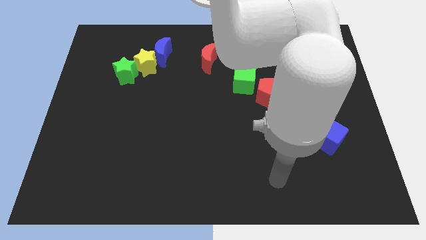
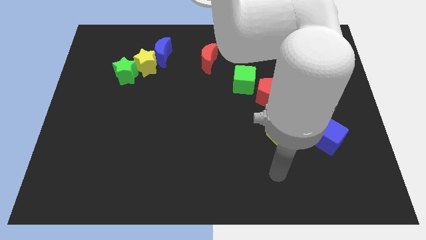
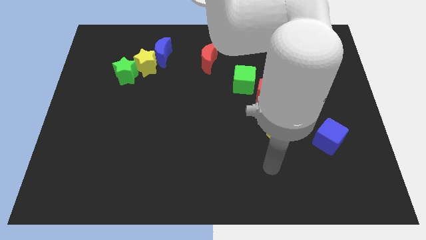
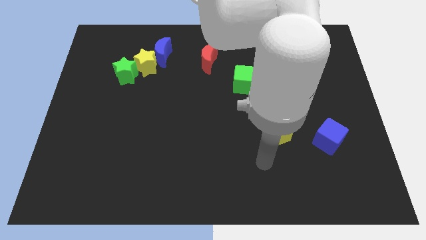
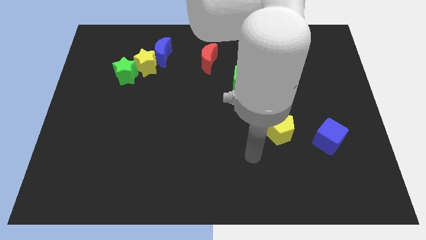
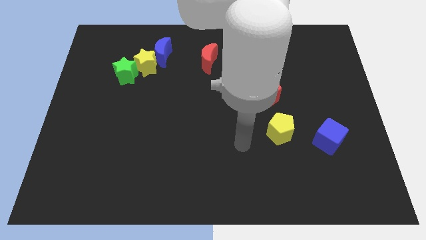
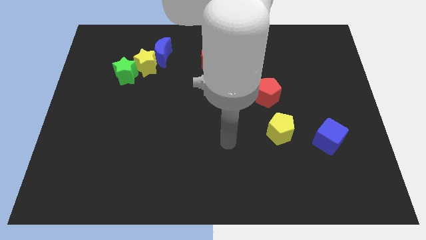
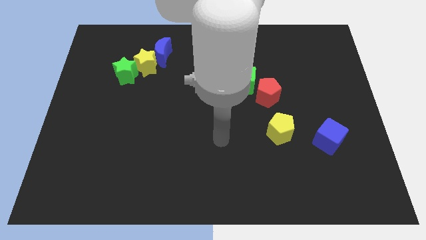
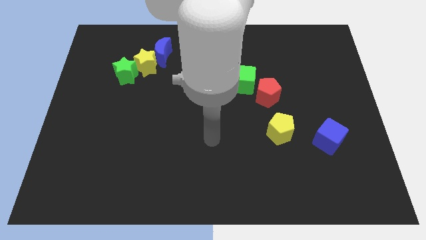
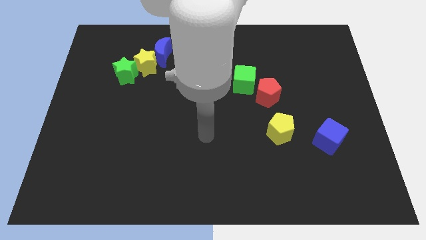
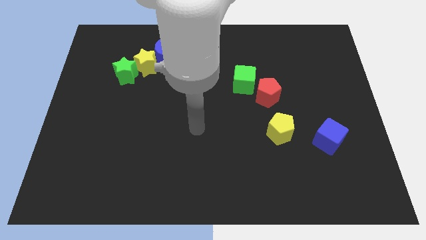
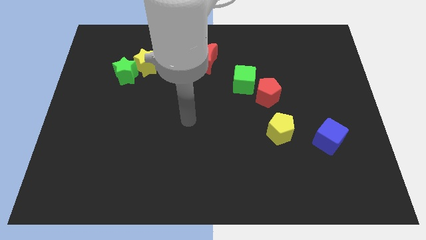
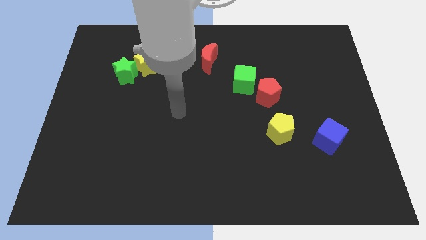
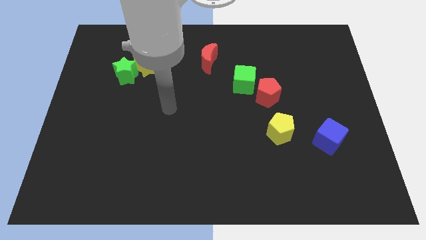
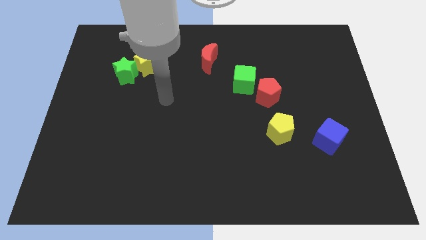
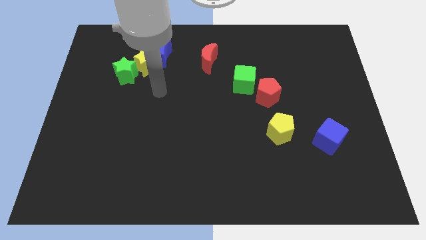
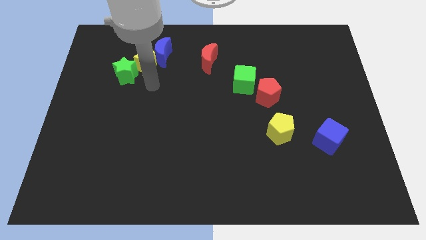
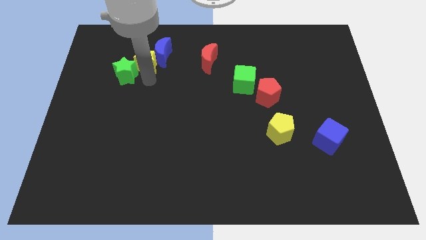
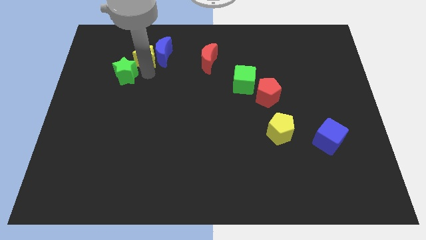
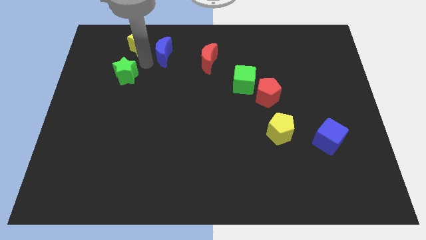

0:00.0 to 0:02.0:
pull the green star apart from the yellow star

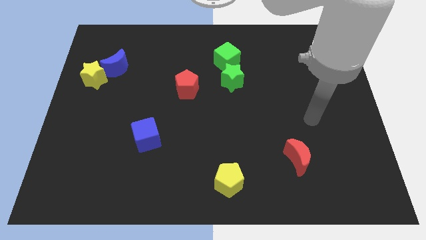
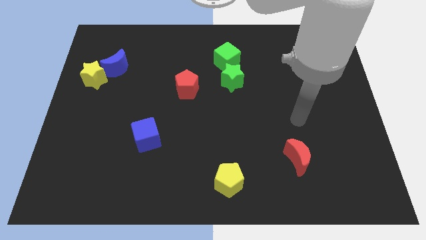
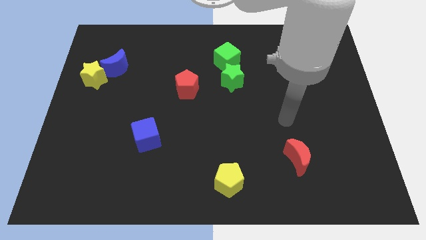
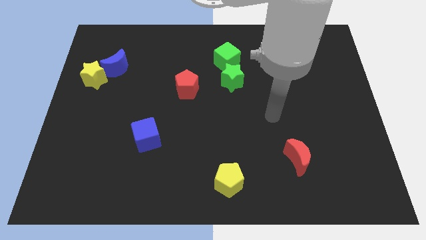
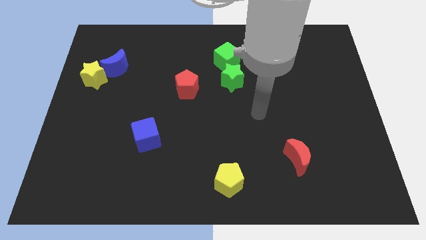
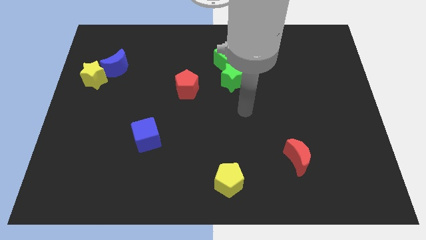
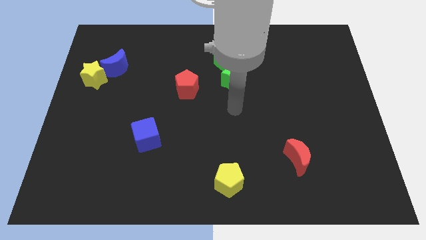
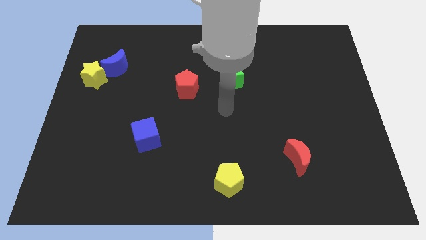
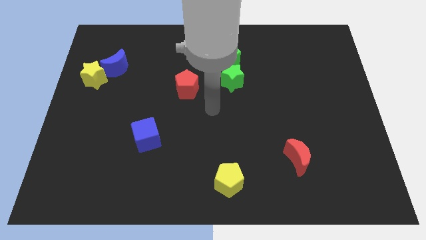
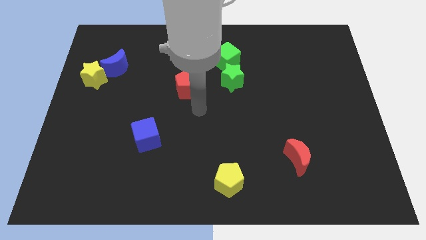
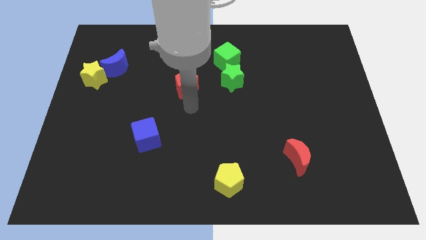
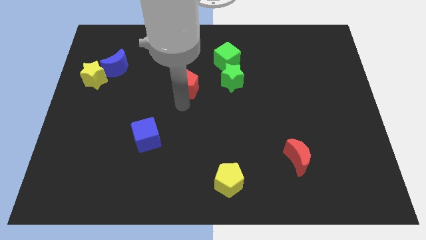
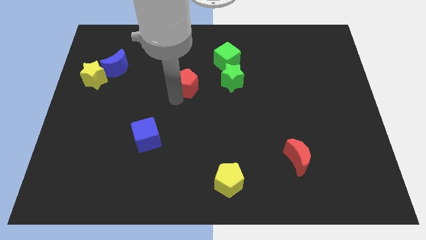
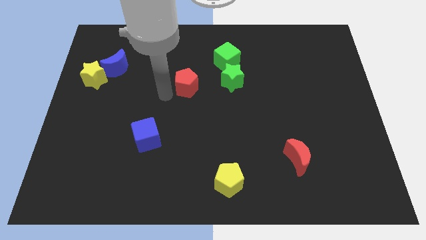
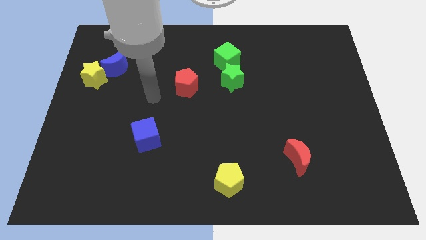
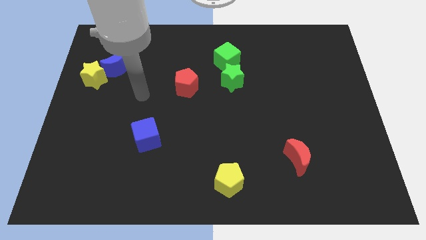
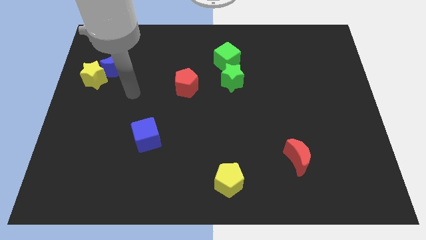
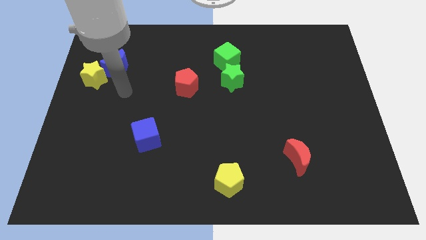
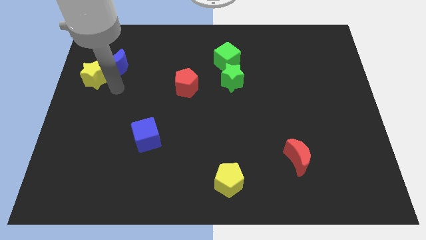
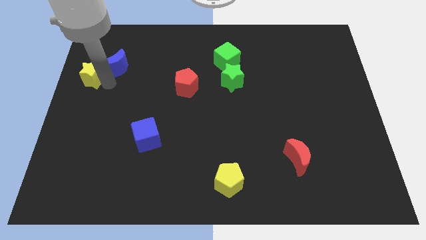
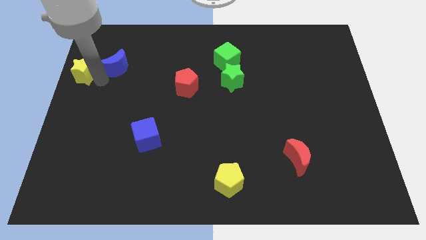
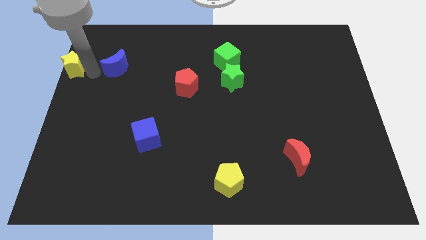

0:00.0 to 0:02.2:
separate the blue moon from the yellow star

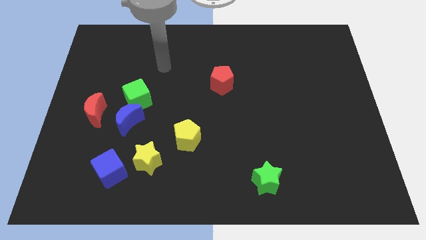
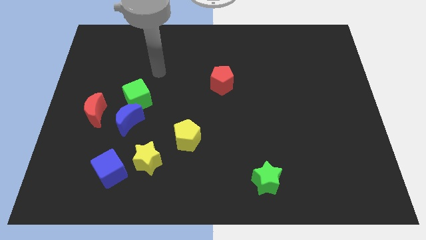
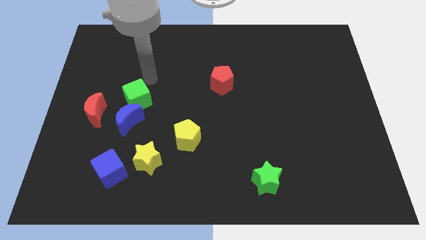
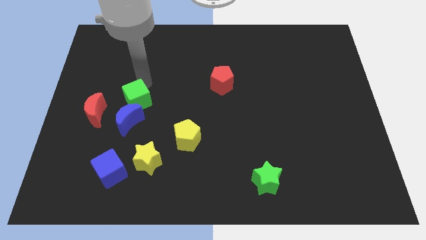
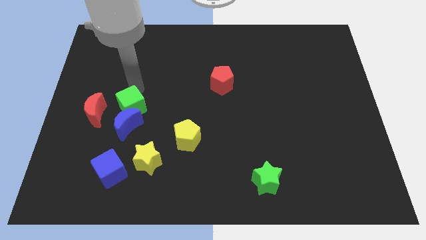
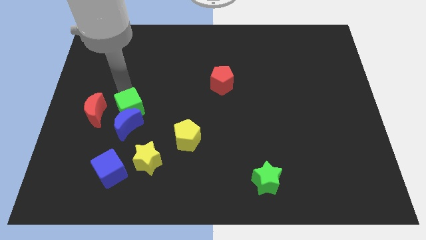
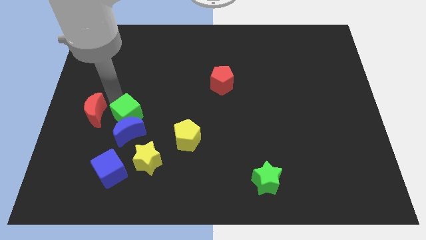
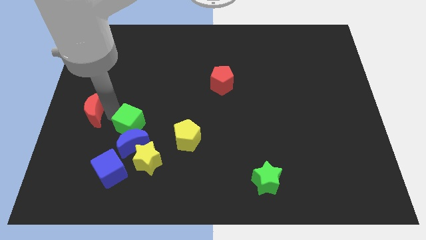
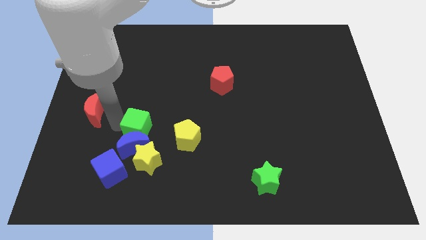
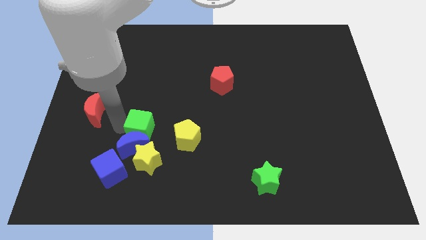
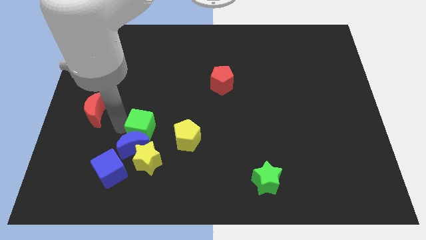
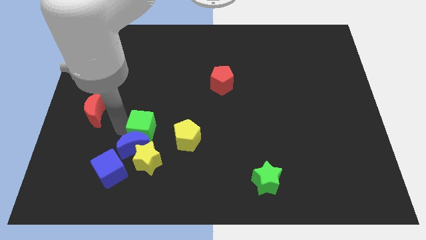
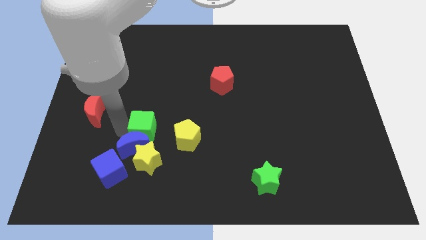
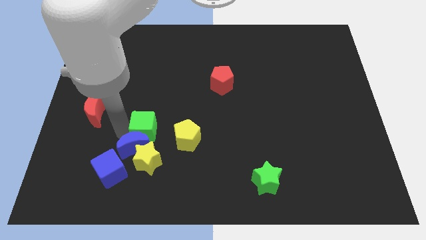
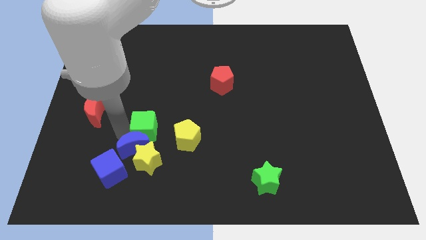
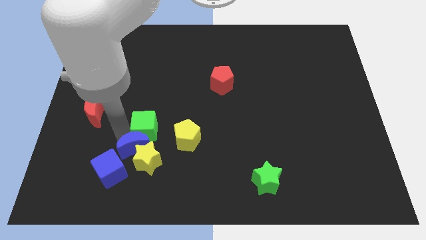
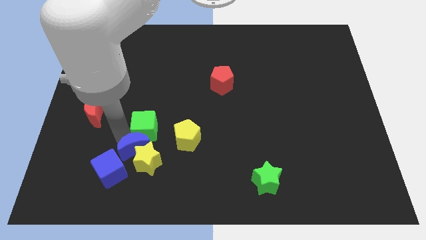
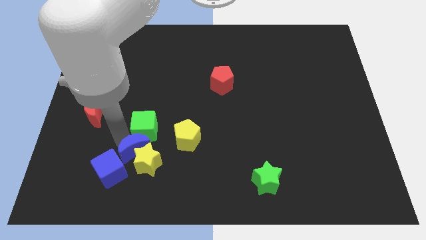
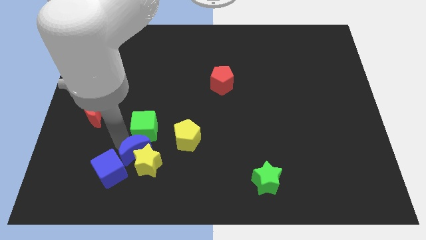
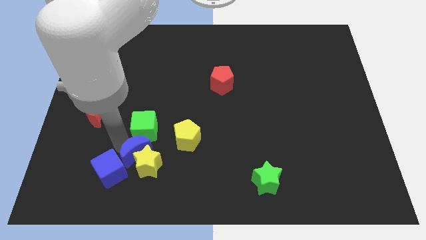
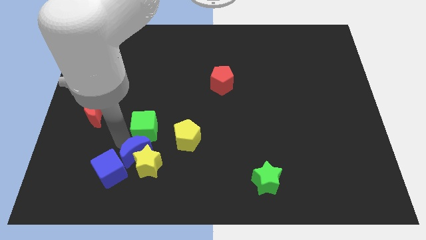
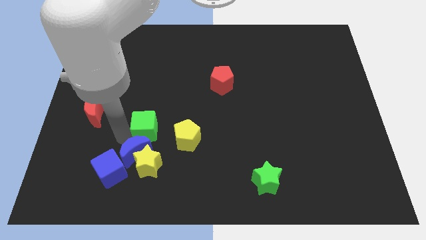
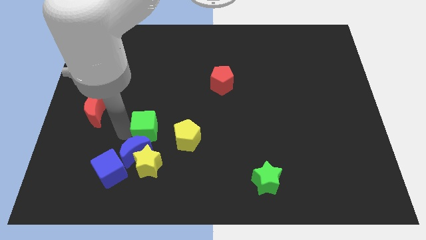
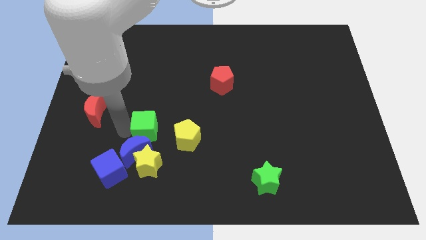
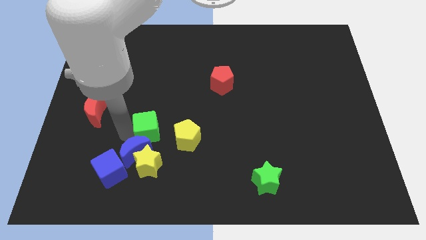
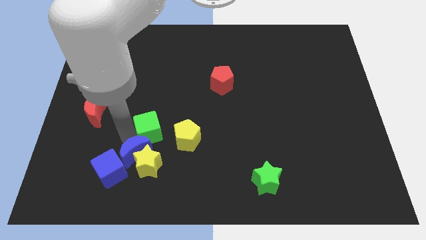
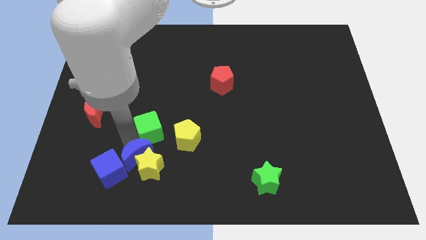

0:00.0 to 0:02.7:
pull the blue moon apart from the green cube and red moon

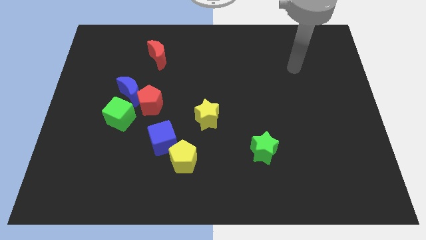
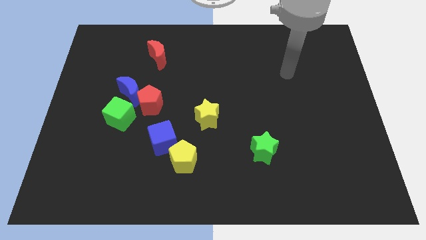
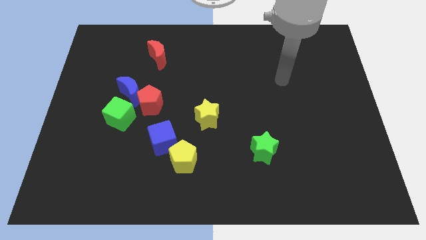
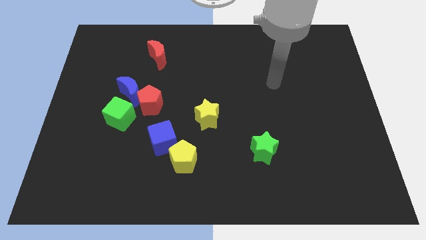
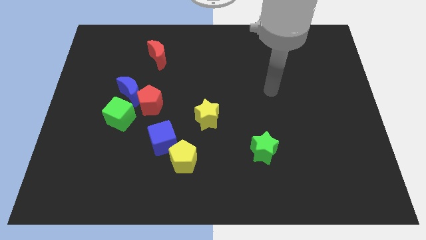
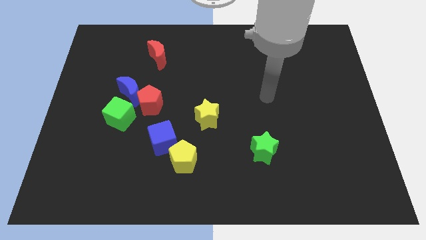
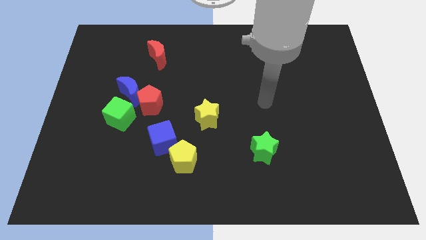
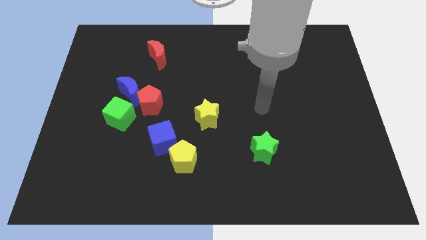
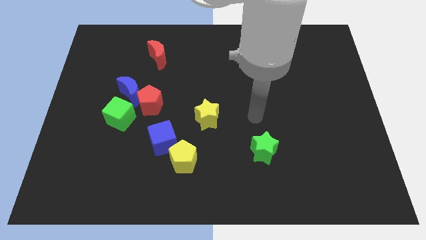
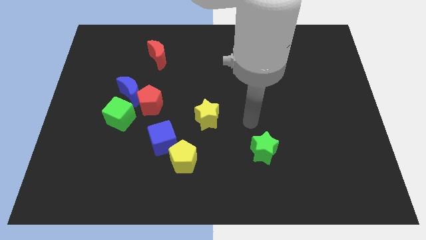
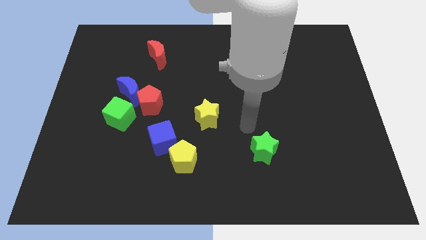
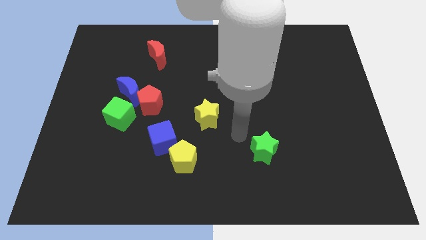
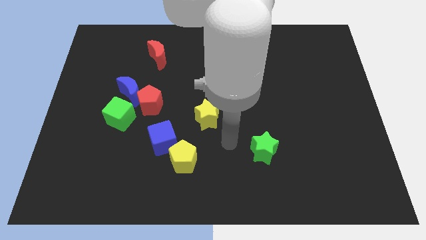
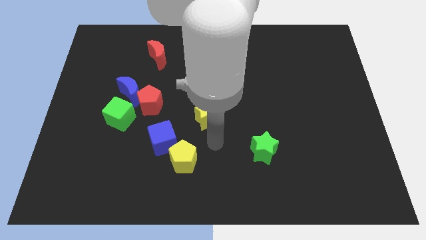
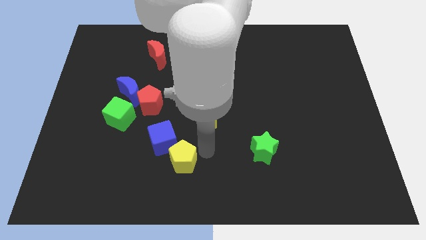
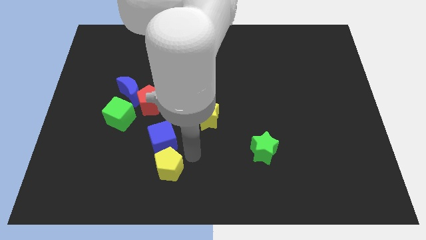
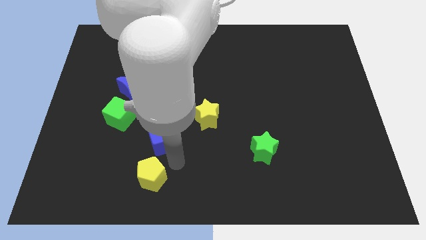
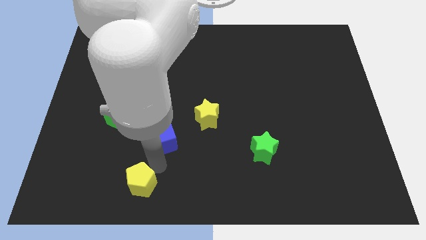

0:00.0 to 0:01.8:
pull the blue cube apart from the yellow pentagon

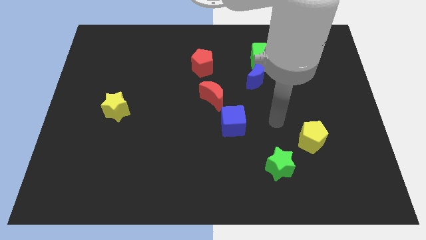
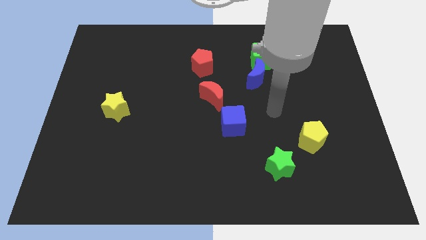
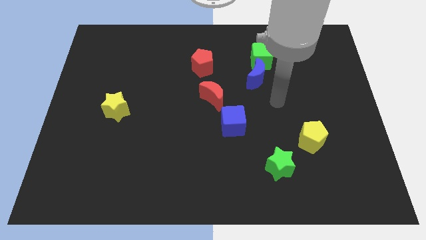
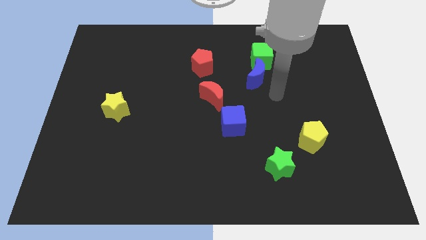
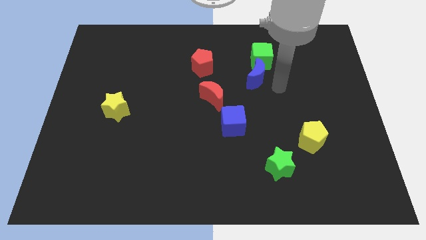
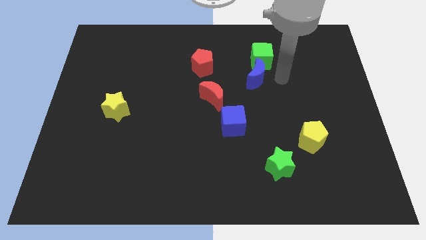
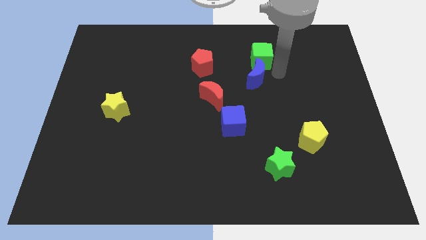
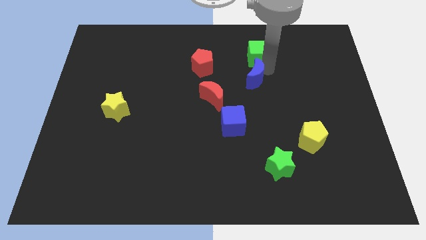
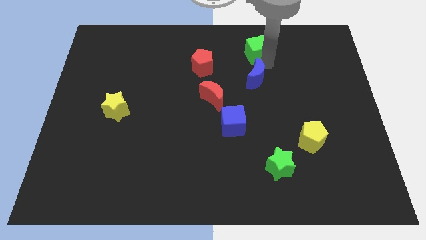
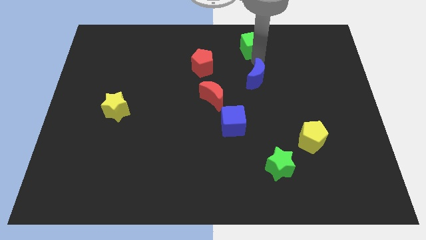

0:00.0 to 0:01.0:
separate the blue moon from the green cube
